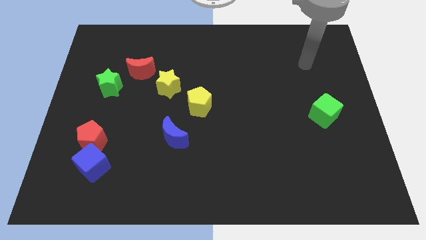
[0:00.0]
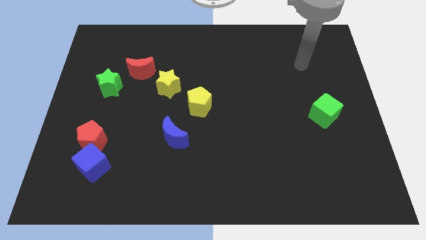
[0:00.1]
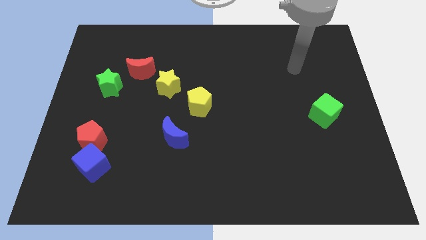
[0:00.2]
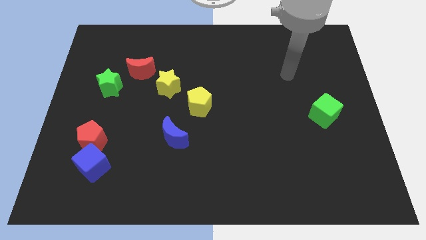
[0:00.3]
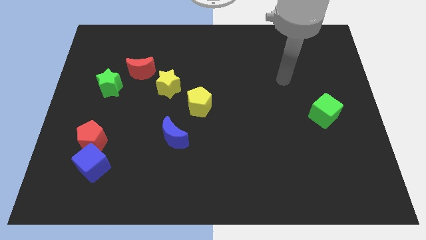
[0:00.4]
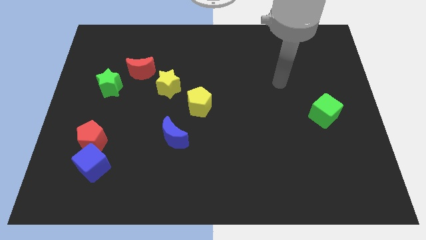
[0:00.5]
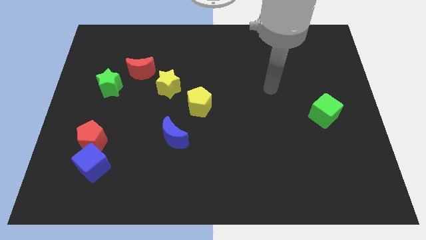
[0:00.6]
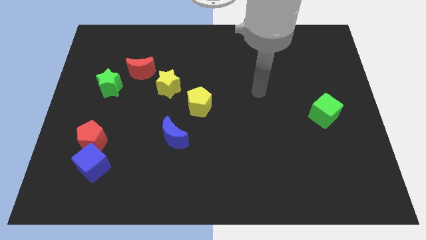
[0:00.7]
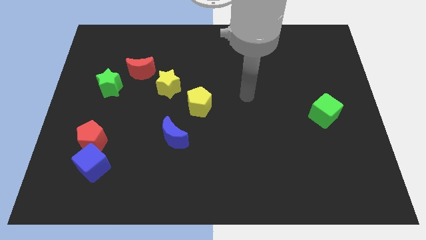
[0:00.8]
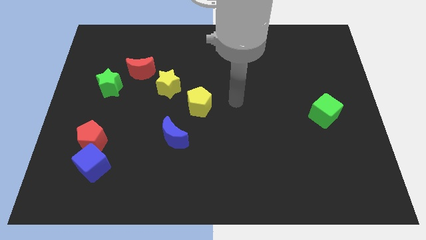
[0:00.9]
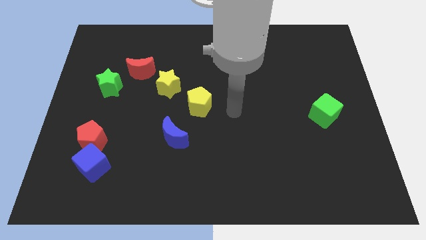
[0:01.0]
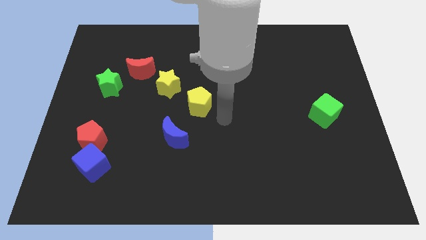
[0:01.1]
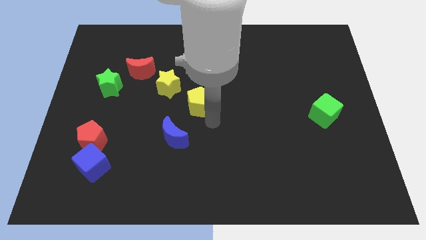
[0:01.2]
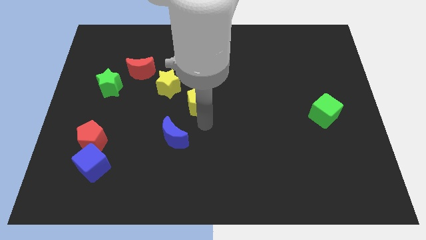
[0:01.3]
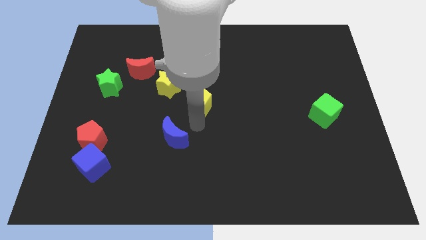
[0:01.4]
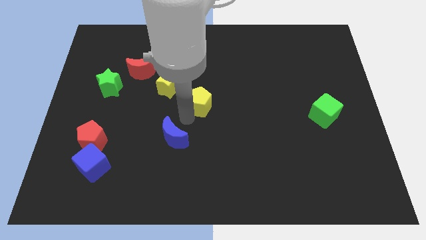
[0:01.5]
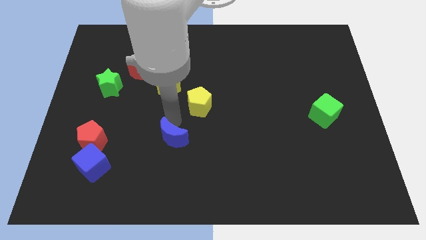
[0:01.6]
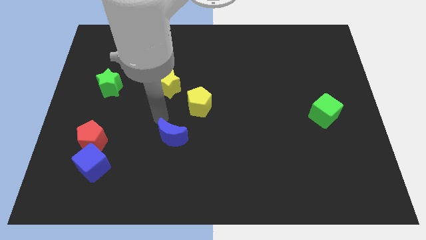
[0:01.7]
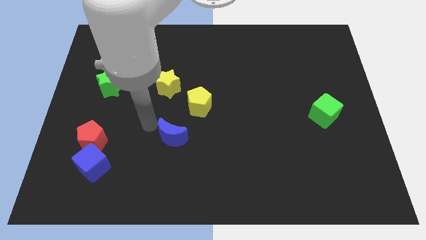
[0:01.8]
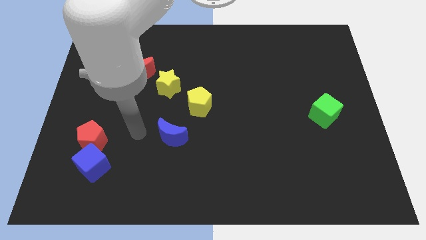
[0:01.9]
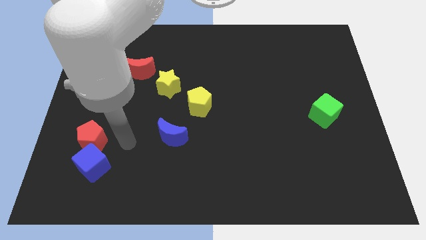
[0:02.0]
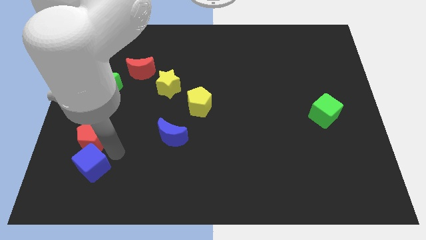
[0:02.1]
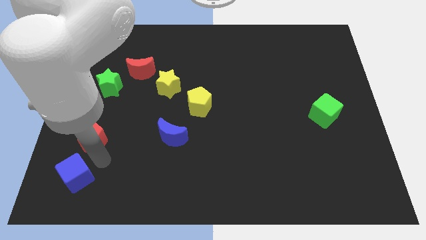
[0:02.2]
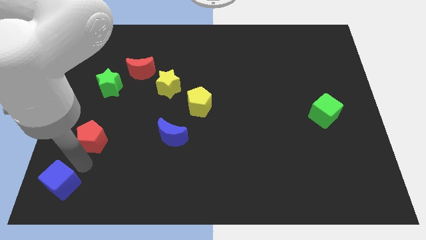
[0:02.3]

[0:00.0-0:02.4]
pull the red pentagon apart from the blue cube

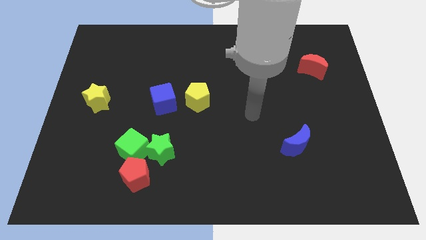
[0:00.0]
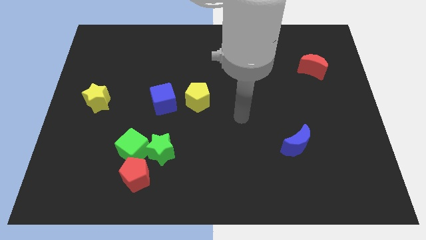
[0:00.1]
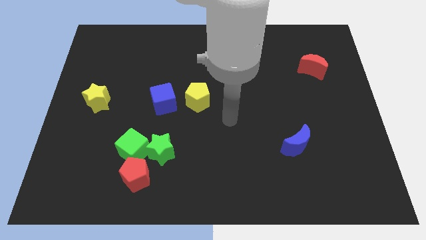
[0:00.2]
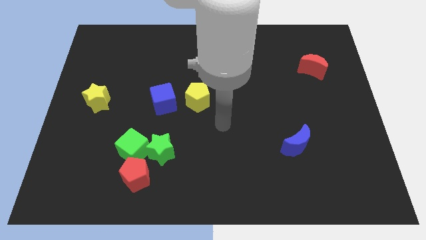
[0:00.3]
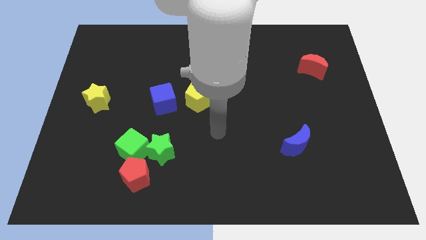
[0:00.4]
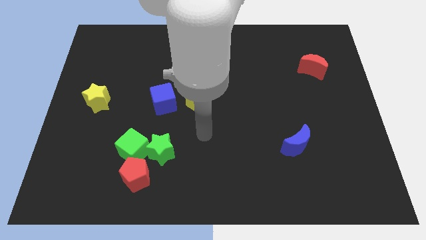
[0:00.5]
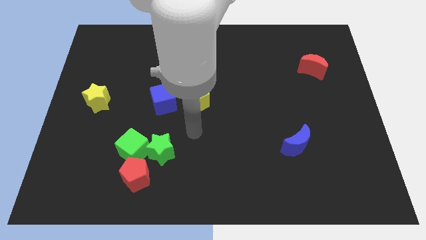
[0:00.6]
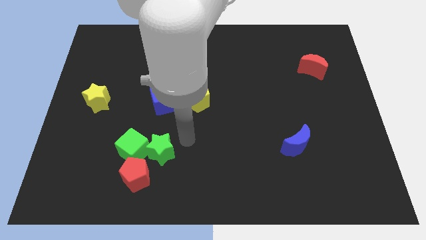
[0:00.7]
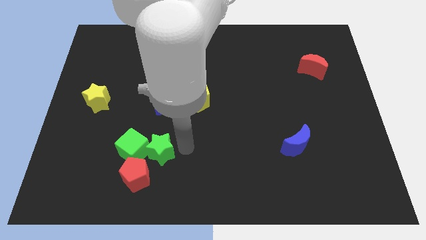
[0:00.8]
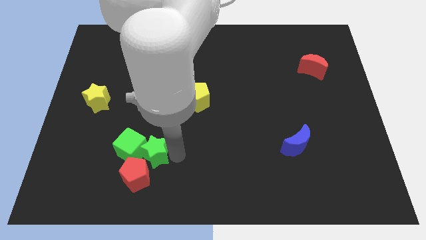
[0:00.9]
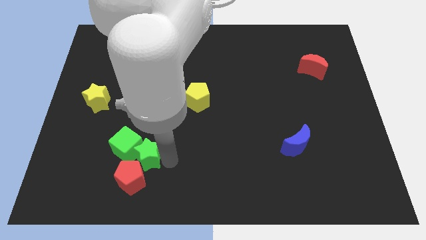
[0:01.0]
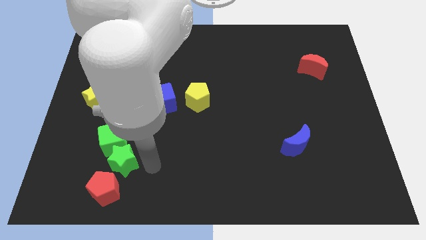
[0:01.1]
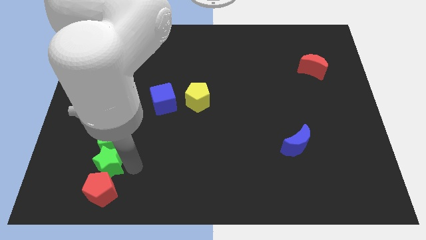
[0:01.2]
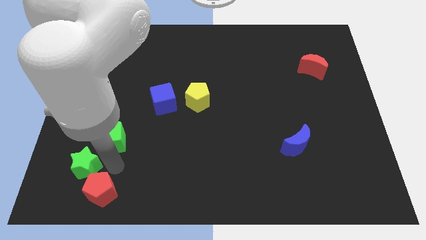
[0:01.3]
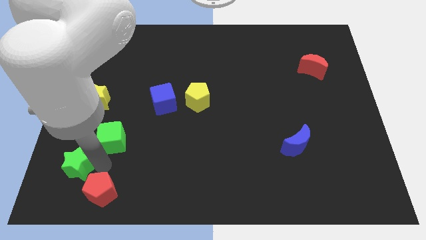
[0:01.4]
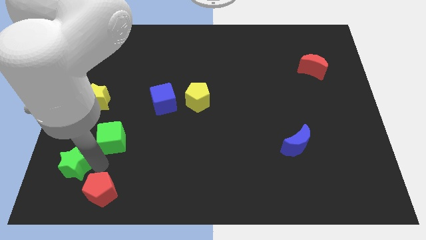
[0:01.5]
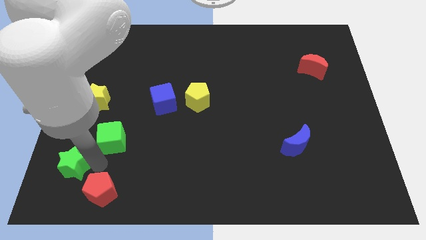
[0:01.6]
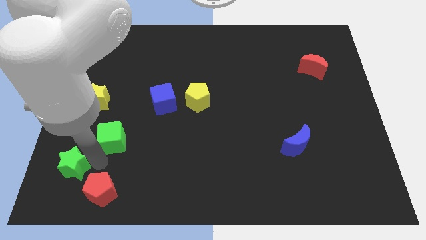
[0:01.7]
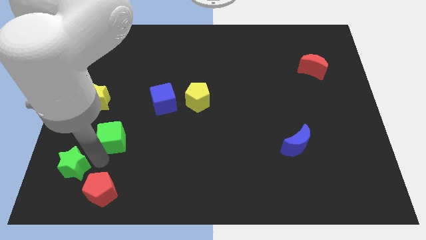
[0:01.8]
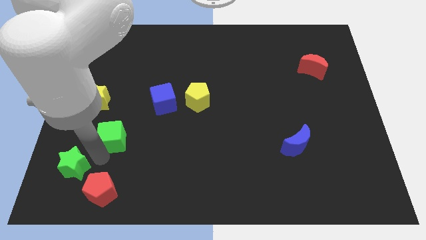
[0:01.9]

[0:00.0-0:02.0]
move the green cube away from the green star and red pentagon

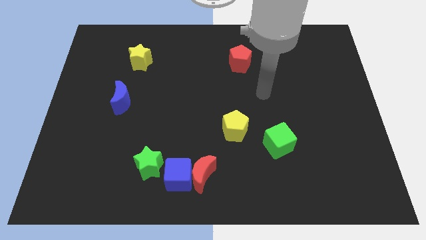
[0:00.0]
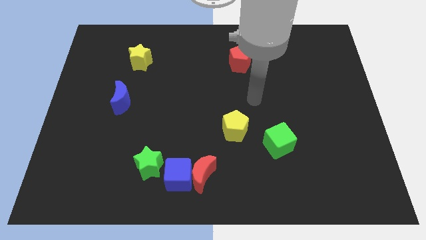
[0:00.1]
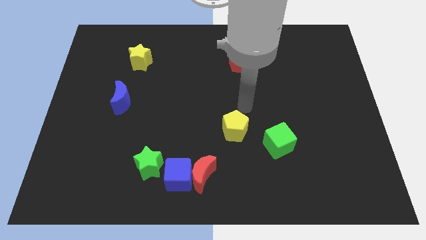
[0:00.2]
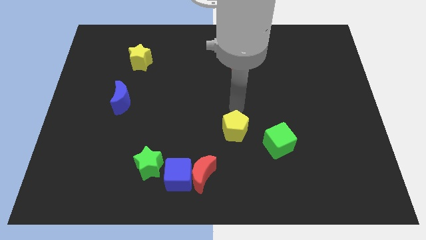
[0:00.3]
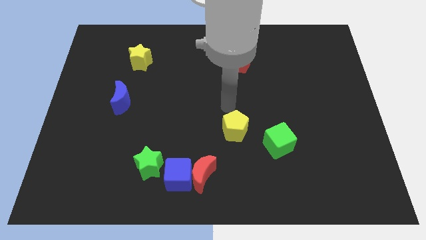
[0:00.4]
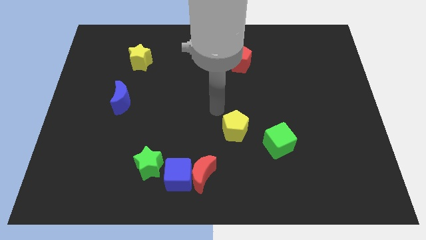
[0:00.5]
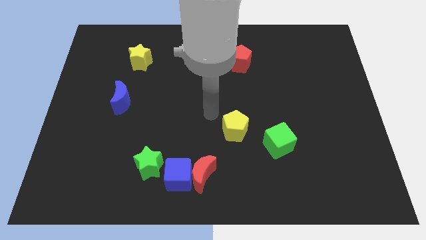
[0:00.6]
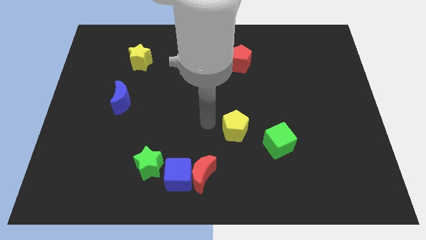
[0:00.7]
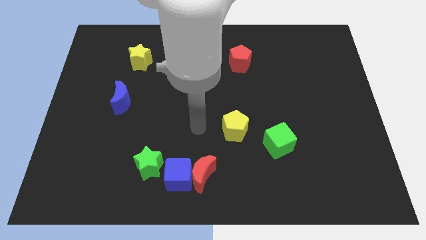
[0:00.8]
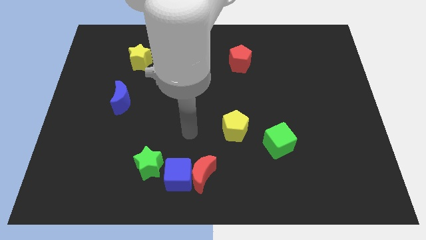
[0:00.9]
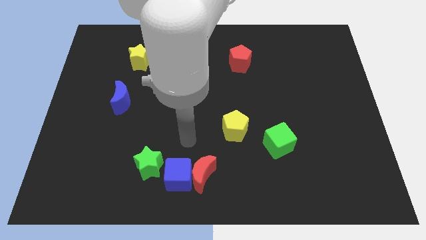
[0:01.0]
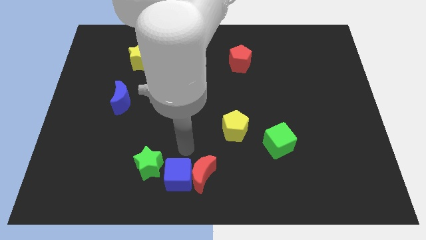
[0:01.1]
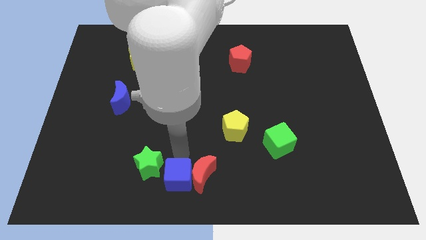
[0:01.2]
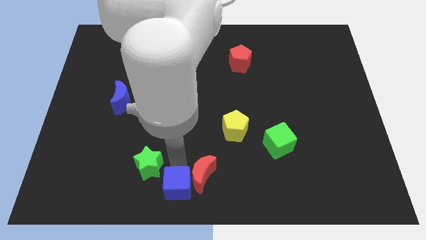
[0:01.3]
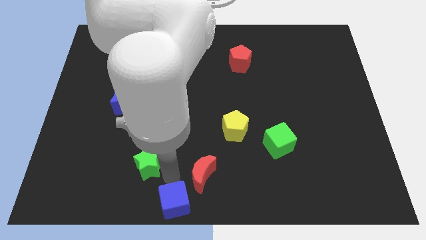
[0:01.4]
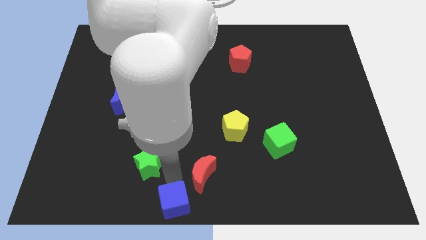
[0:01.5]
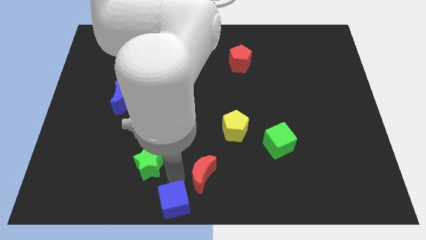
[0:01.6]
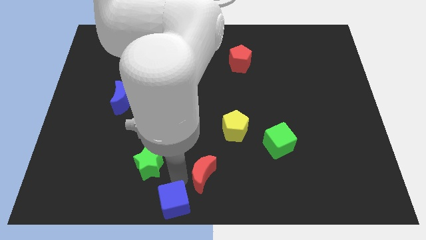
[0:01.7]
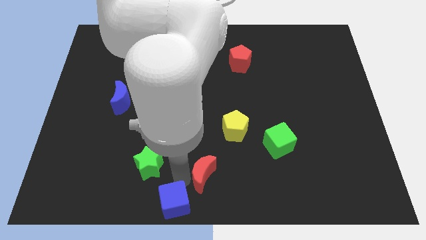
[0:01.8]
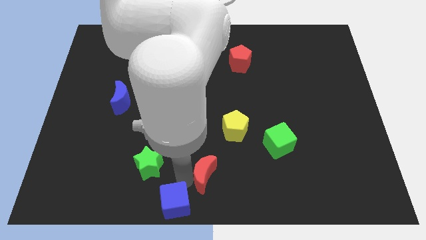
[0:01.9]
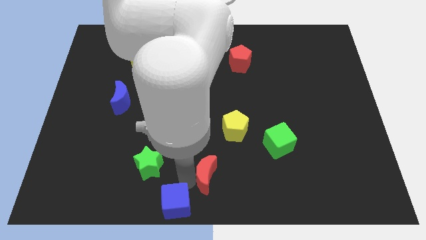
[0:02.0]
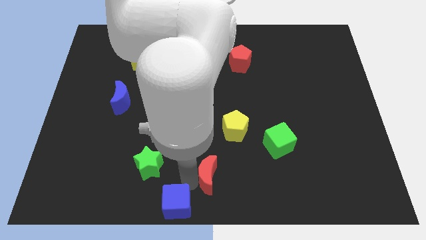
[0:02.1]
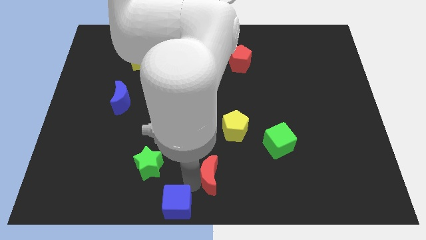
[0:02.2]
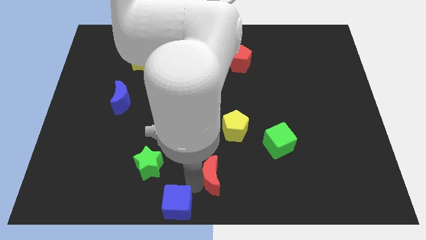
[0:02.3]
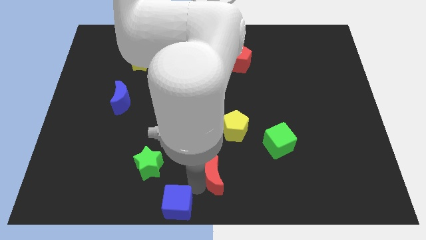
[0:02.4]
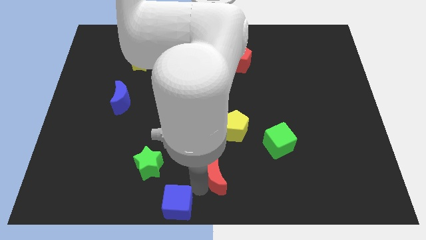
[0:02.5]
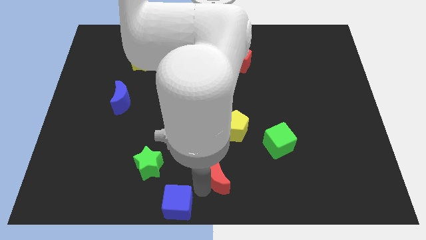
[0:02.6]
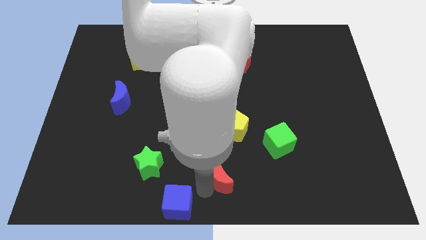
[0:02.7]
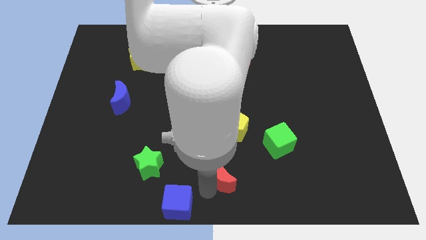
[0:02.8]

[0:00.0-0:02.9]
move the red moon away from the blue cube

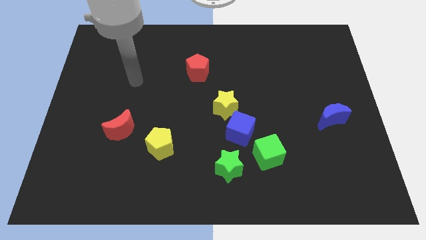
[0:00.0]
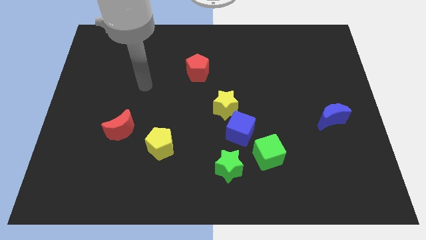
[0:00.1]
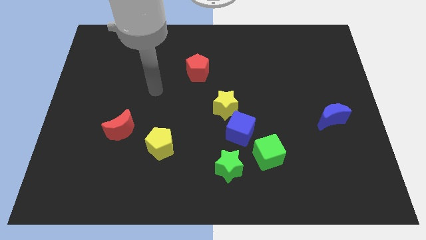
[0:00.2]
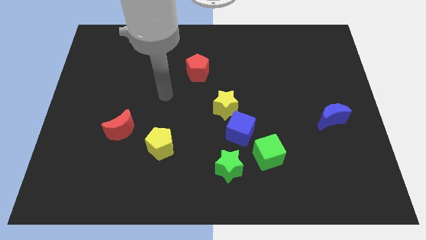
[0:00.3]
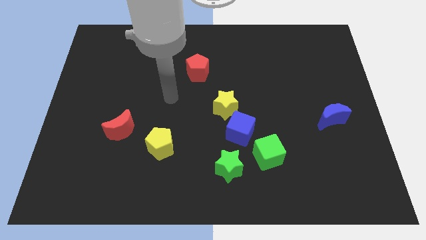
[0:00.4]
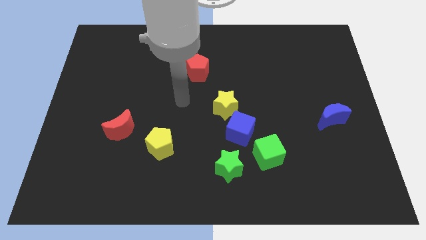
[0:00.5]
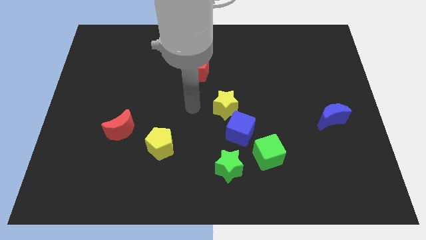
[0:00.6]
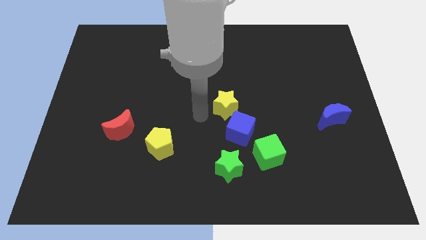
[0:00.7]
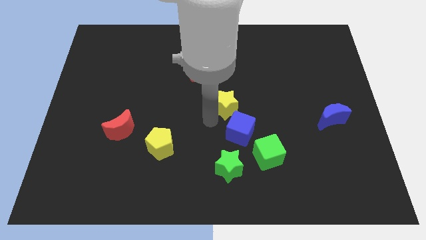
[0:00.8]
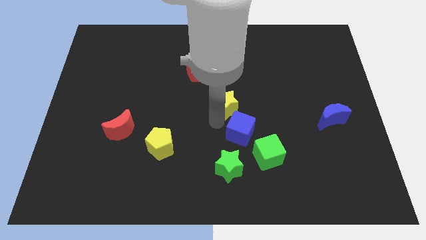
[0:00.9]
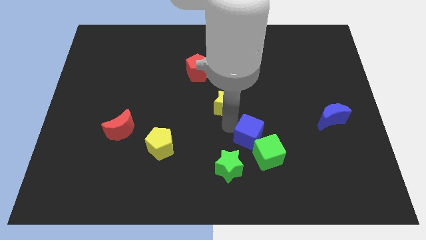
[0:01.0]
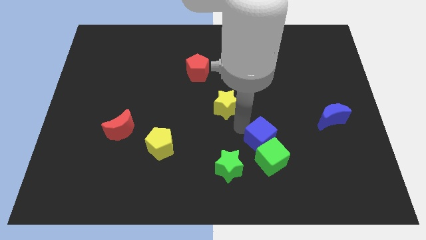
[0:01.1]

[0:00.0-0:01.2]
separate the yellow star from the blue cube

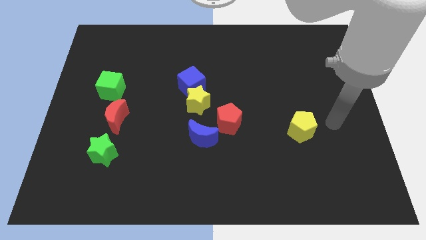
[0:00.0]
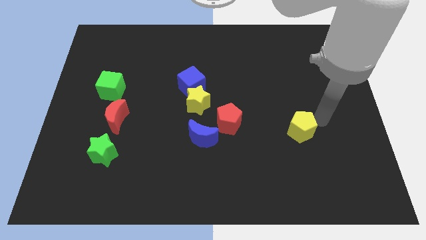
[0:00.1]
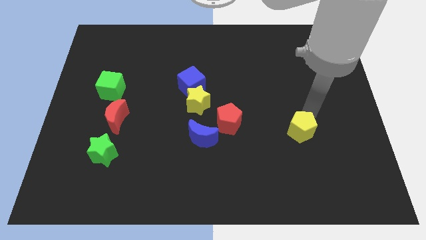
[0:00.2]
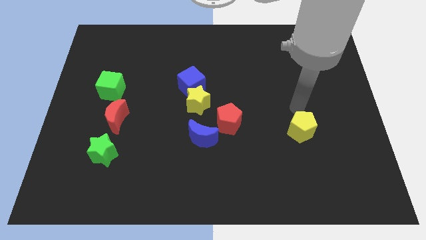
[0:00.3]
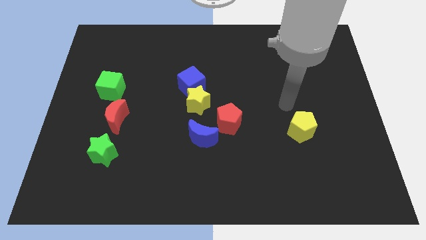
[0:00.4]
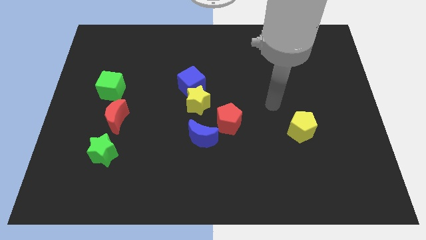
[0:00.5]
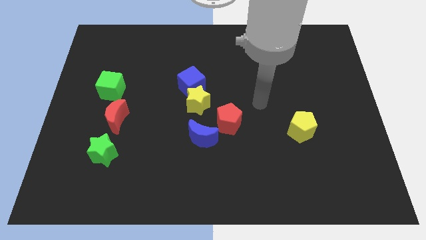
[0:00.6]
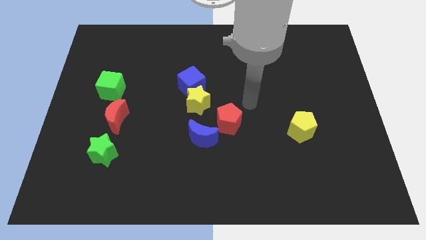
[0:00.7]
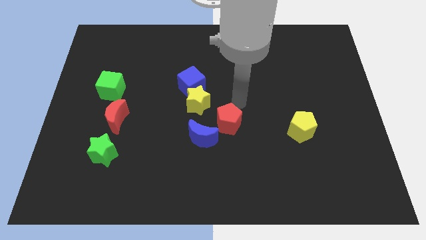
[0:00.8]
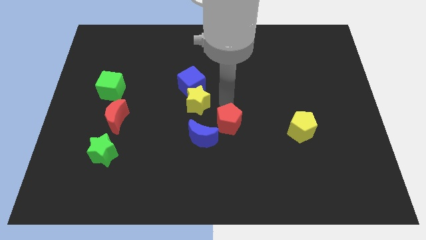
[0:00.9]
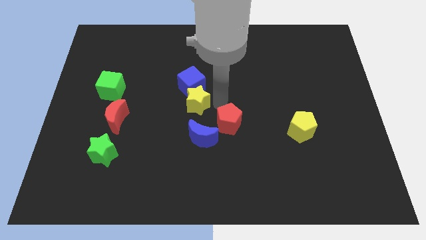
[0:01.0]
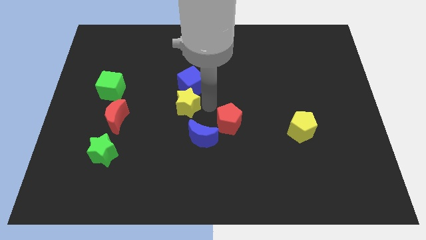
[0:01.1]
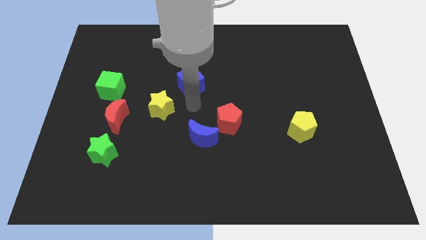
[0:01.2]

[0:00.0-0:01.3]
pull the blue cube apart from the yellow star
